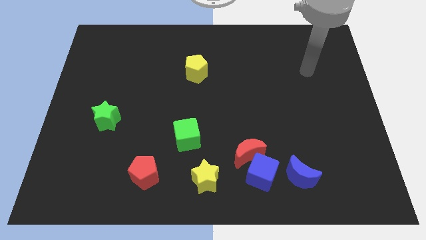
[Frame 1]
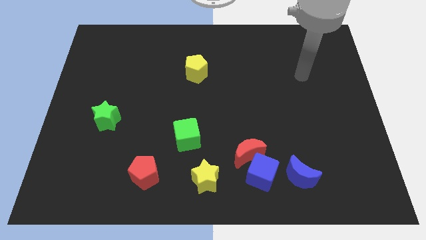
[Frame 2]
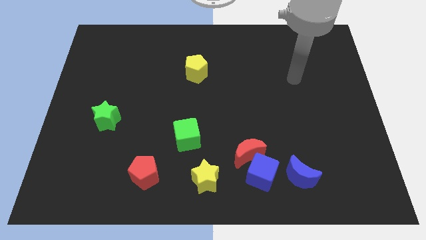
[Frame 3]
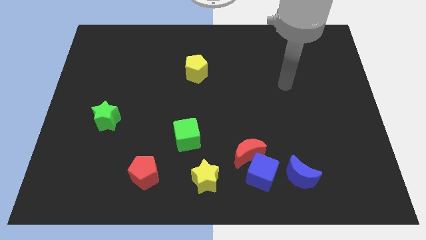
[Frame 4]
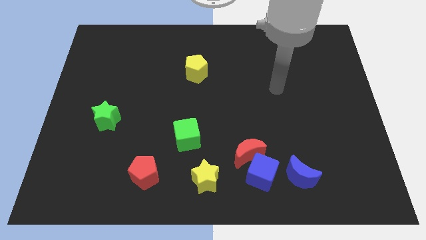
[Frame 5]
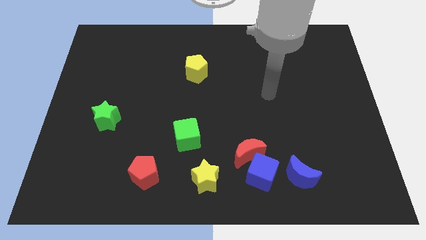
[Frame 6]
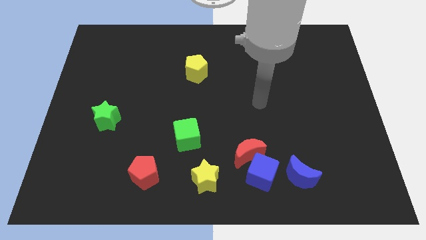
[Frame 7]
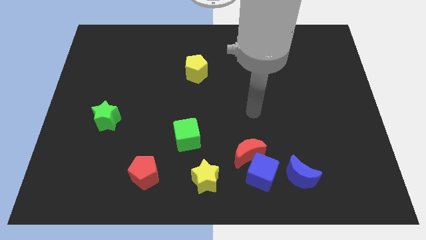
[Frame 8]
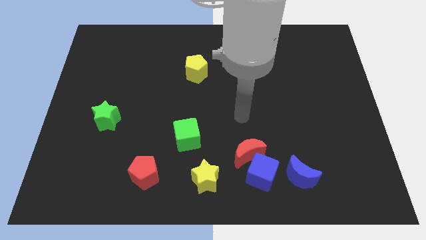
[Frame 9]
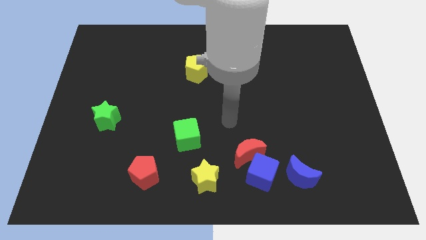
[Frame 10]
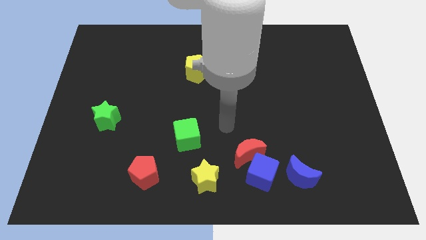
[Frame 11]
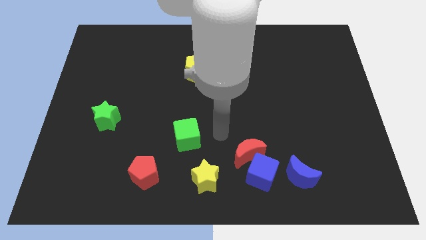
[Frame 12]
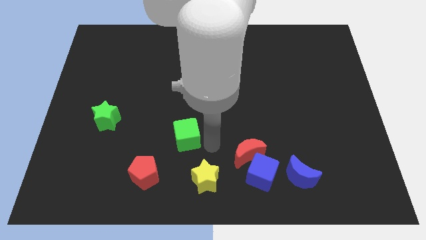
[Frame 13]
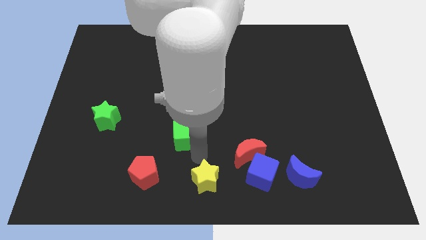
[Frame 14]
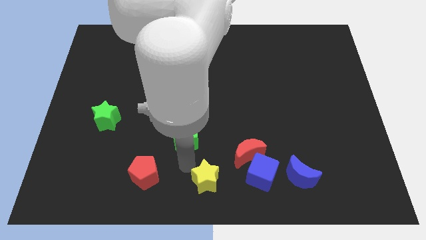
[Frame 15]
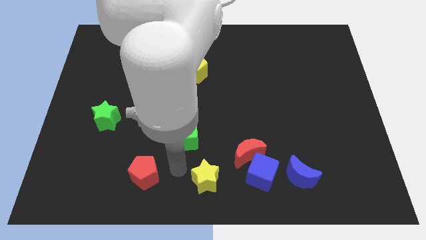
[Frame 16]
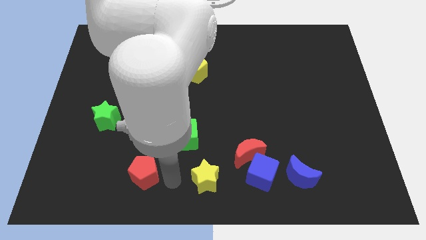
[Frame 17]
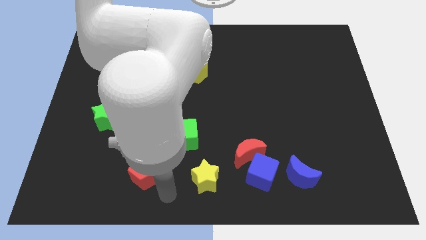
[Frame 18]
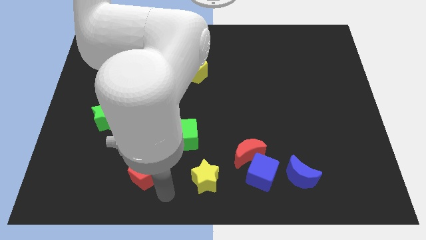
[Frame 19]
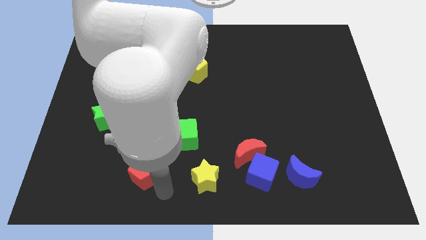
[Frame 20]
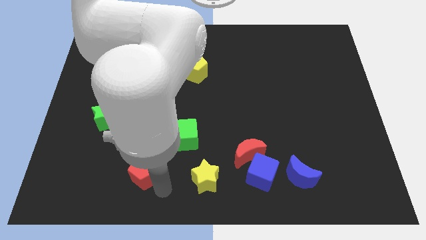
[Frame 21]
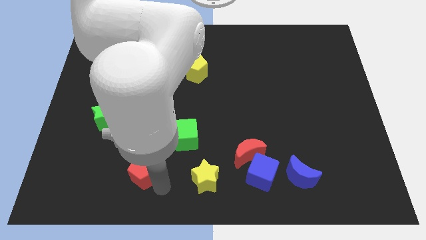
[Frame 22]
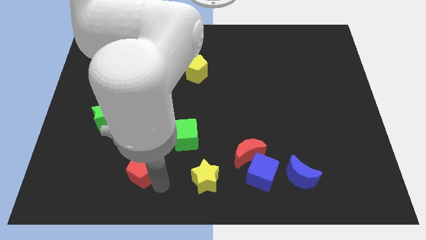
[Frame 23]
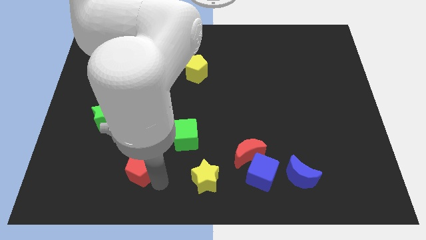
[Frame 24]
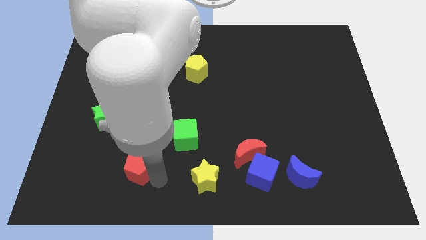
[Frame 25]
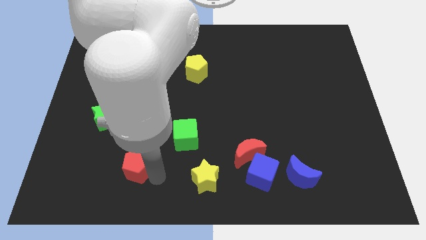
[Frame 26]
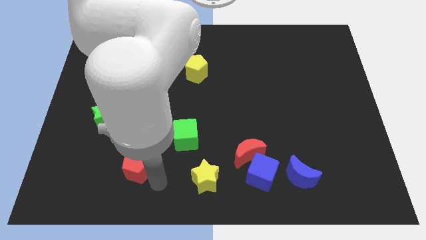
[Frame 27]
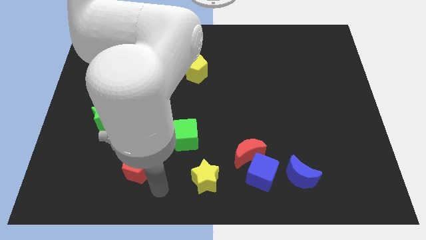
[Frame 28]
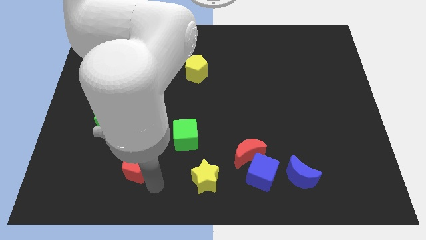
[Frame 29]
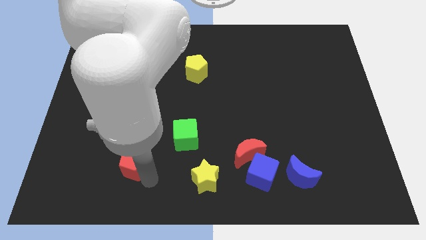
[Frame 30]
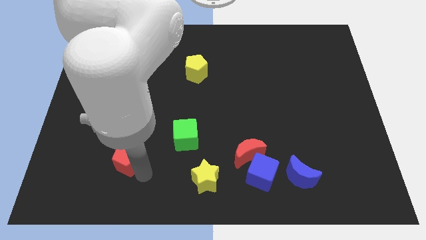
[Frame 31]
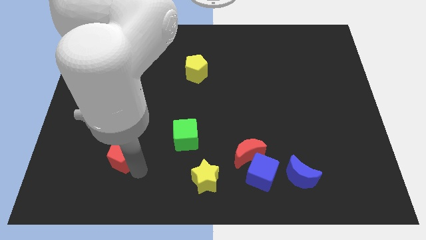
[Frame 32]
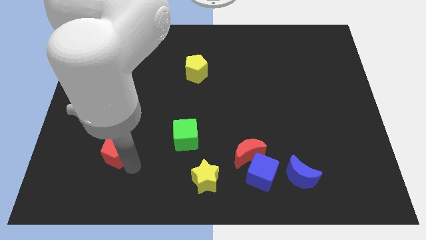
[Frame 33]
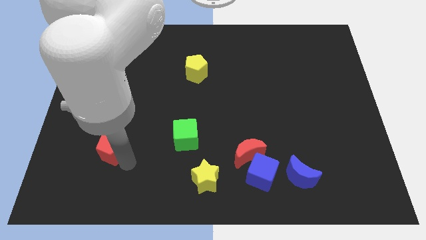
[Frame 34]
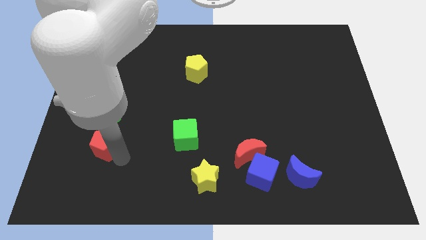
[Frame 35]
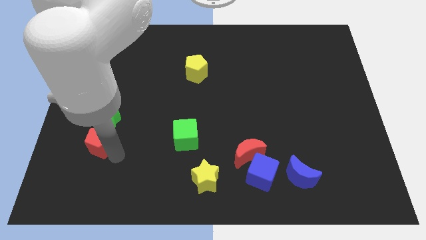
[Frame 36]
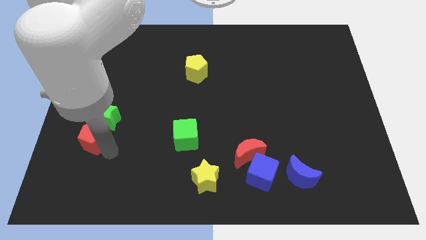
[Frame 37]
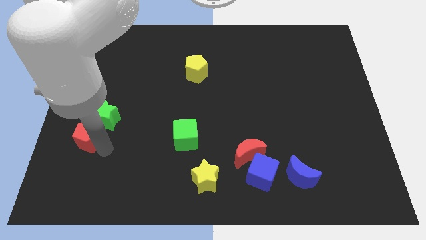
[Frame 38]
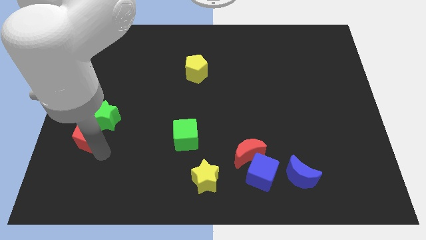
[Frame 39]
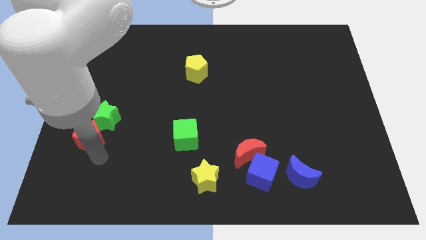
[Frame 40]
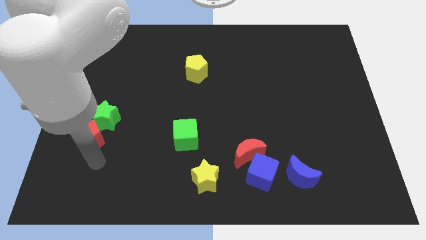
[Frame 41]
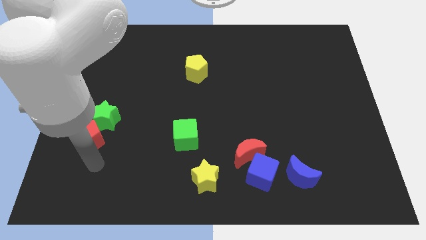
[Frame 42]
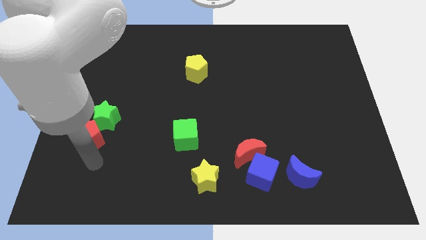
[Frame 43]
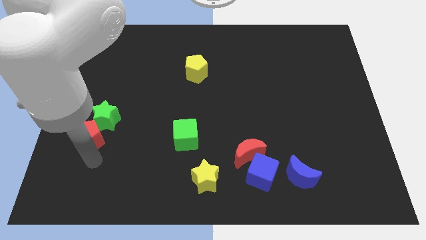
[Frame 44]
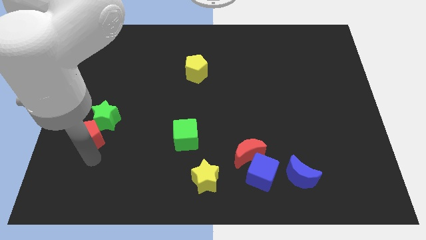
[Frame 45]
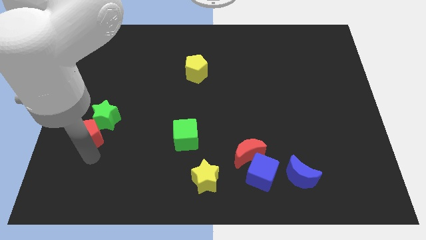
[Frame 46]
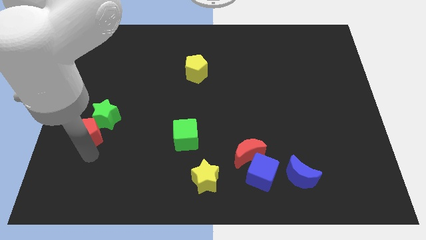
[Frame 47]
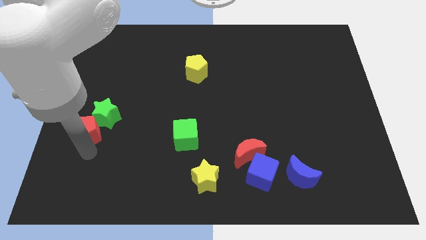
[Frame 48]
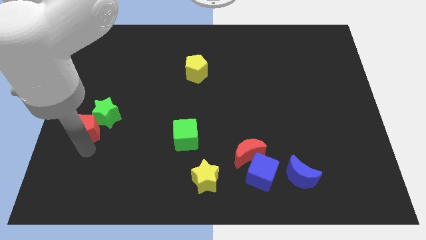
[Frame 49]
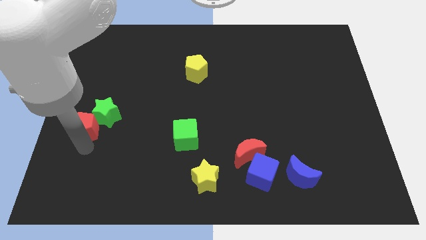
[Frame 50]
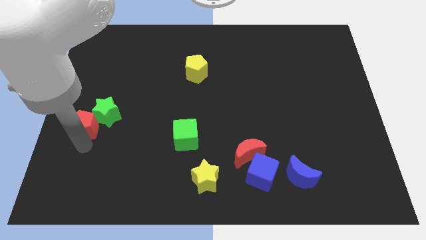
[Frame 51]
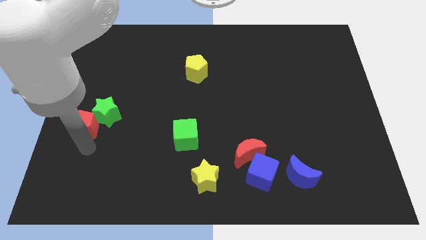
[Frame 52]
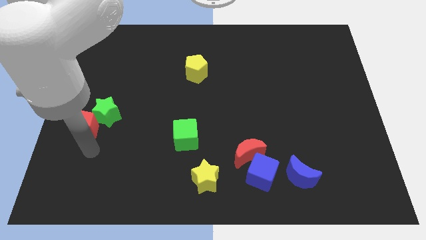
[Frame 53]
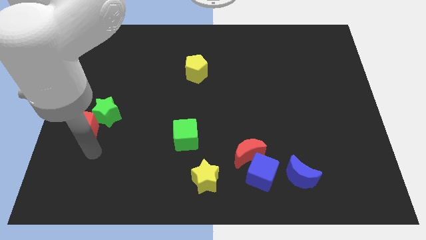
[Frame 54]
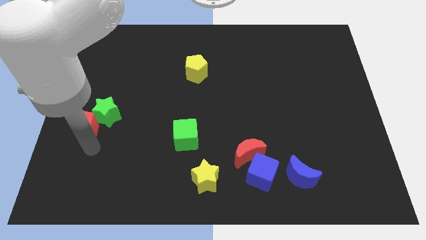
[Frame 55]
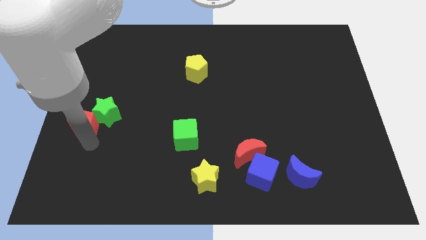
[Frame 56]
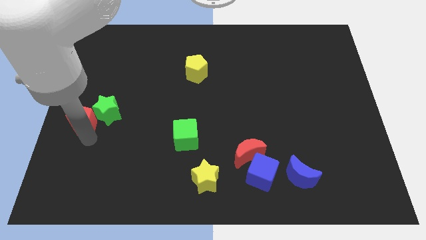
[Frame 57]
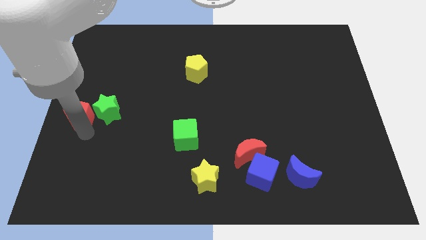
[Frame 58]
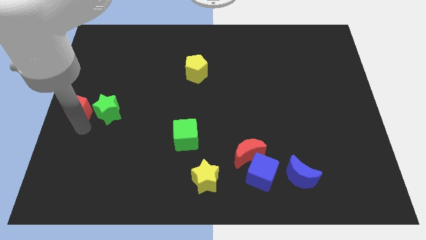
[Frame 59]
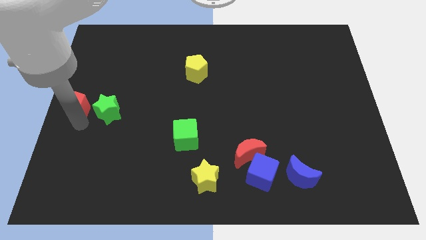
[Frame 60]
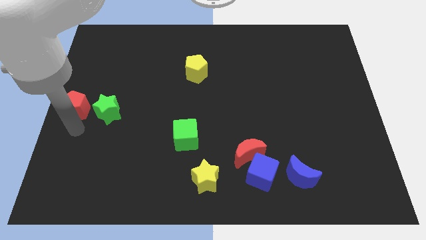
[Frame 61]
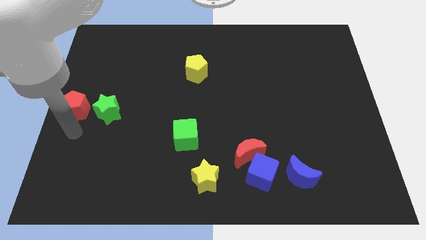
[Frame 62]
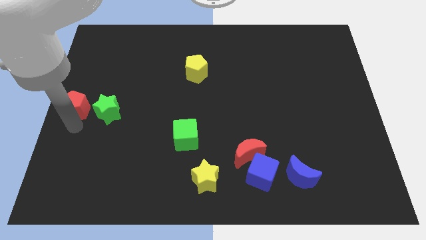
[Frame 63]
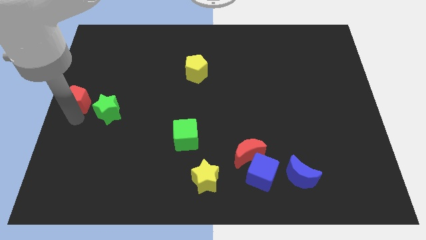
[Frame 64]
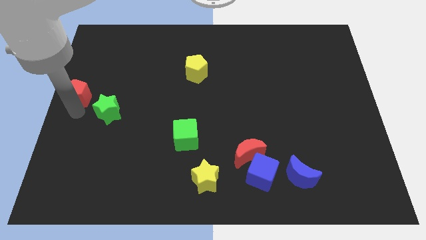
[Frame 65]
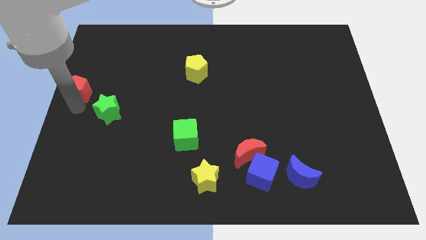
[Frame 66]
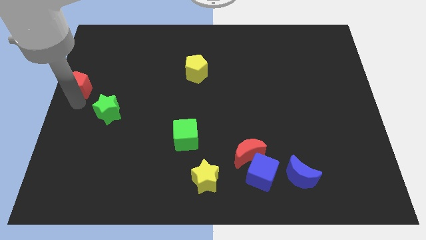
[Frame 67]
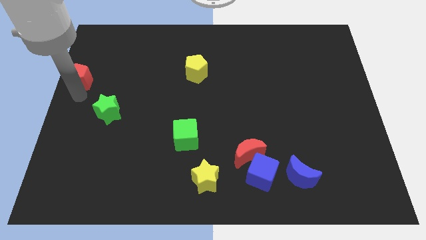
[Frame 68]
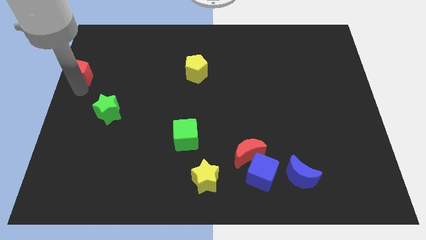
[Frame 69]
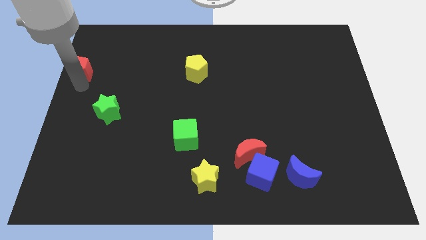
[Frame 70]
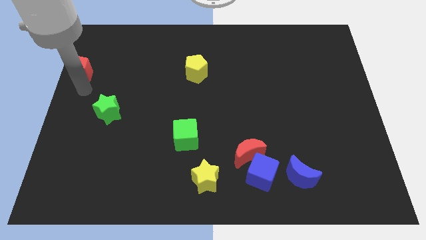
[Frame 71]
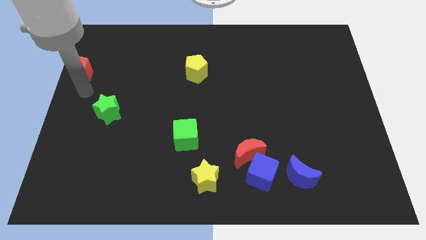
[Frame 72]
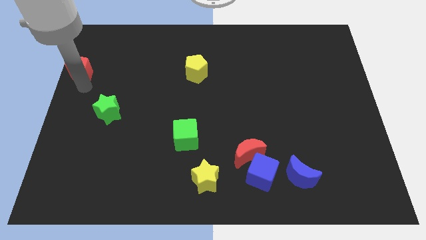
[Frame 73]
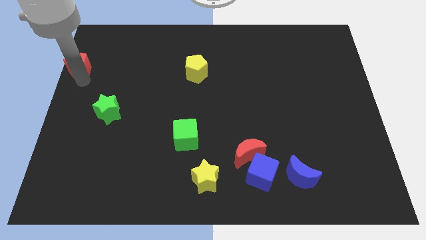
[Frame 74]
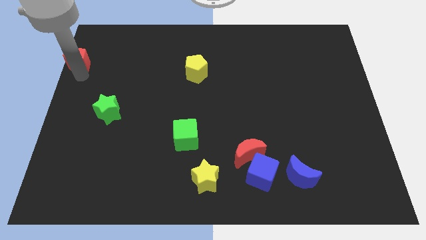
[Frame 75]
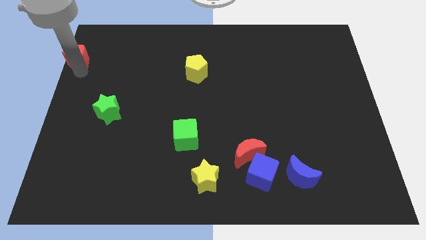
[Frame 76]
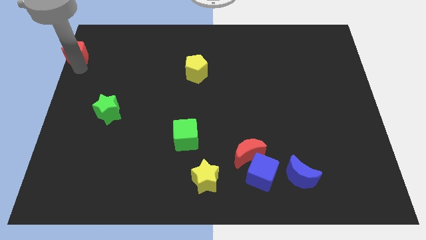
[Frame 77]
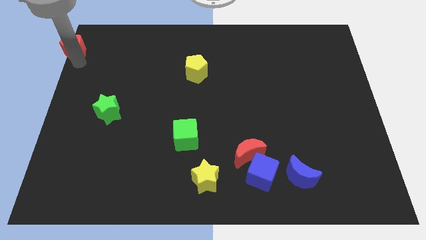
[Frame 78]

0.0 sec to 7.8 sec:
push the red pentagon to the top left corner
